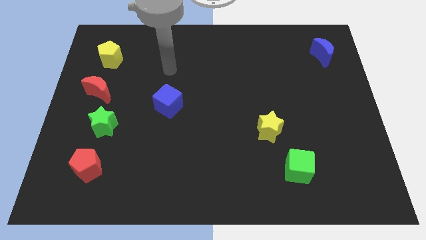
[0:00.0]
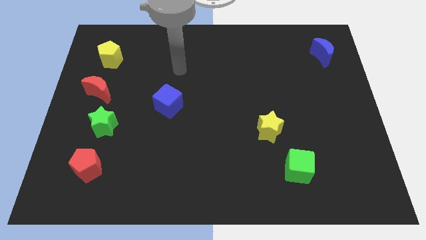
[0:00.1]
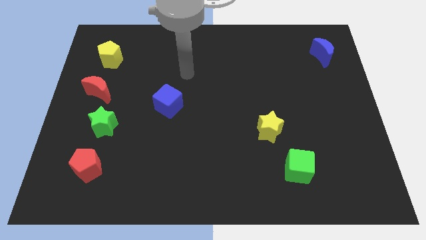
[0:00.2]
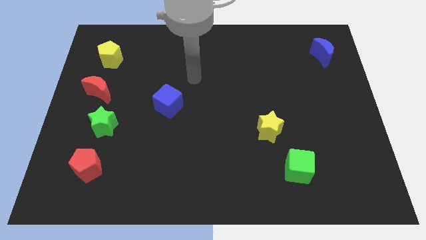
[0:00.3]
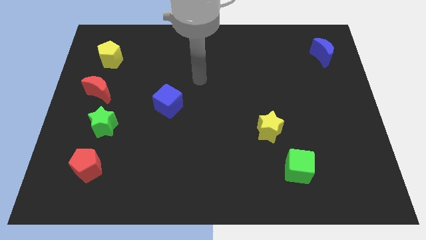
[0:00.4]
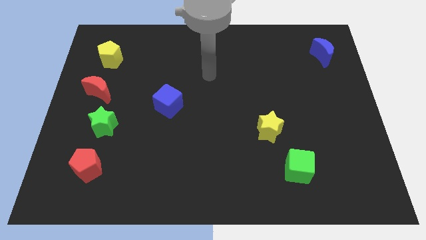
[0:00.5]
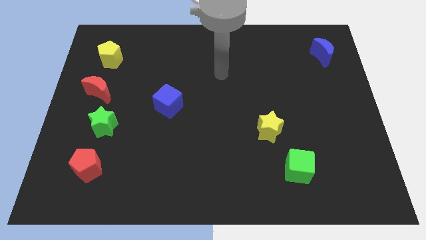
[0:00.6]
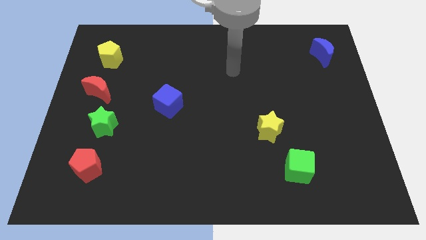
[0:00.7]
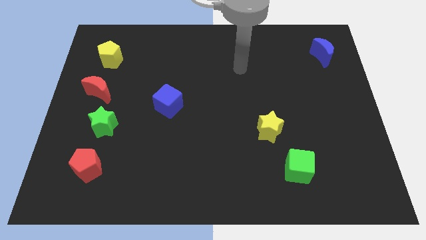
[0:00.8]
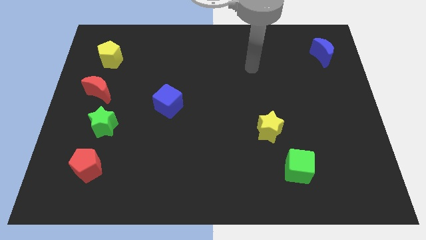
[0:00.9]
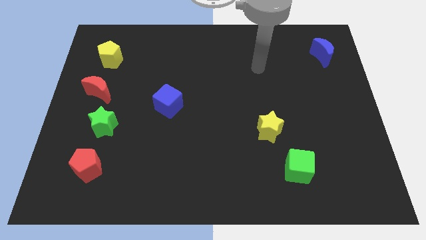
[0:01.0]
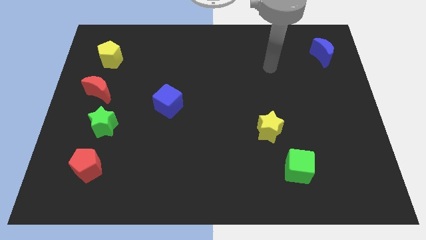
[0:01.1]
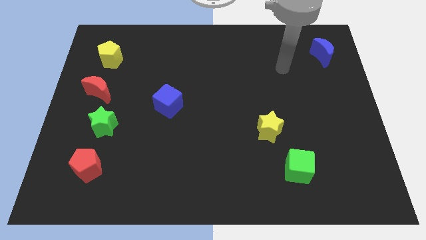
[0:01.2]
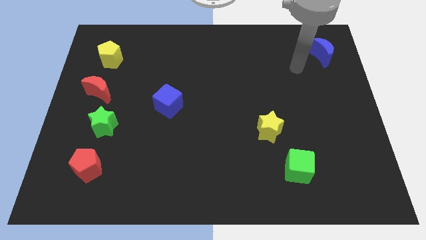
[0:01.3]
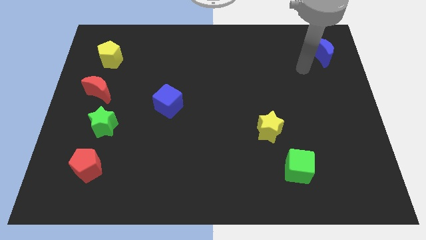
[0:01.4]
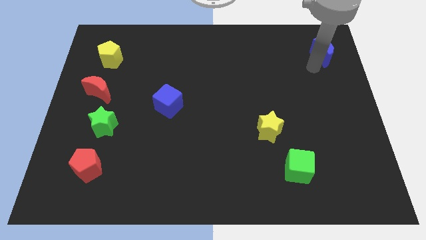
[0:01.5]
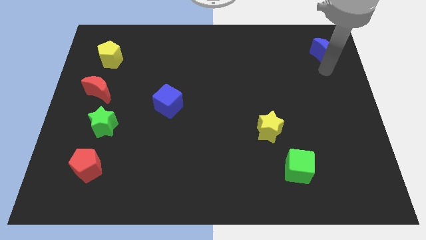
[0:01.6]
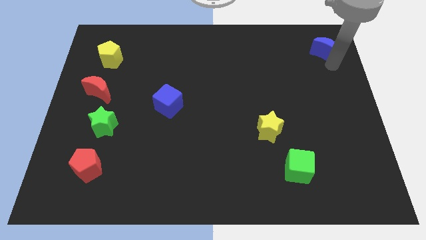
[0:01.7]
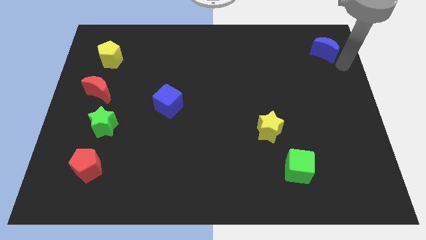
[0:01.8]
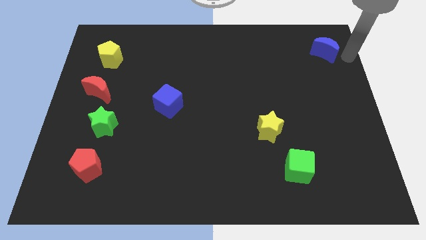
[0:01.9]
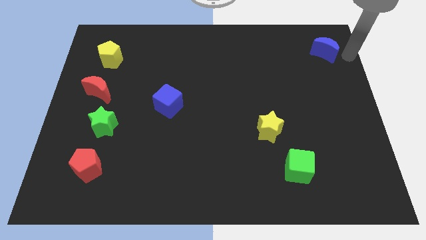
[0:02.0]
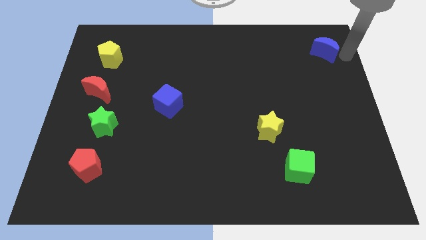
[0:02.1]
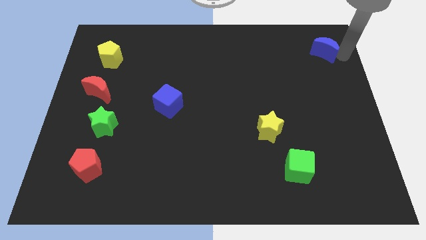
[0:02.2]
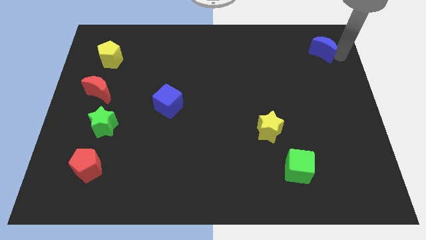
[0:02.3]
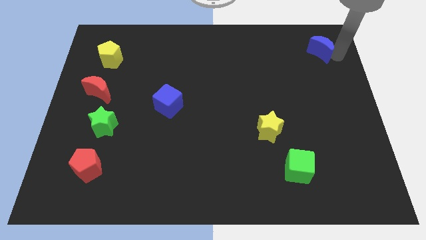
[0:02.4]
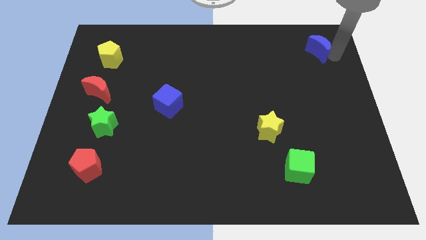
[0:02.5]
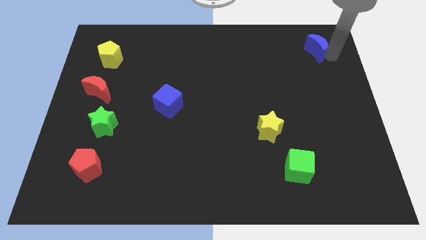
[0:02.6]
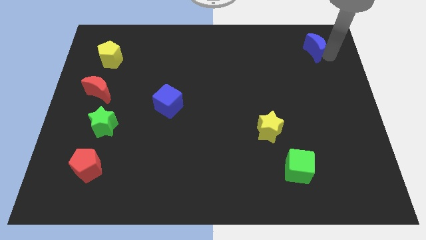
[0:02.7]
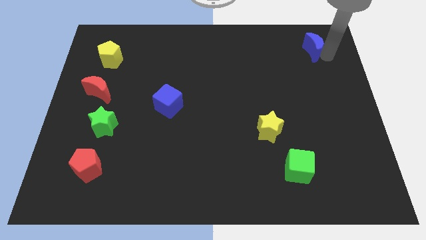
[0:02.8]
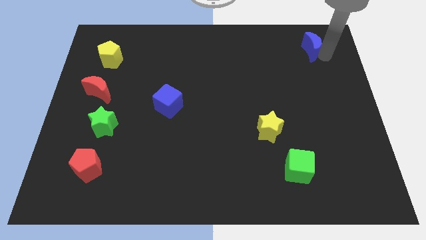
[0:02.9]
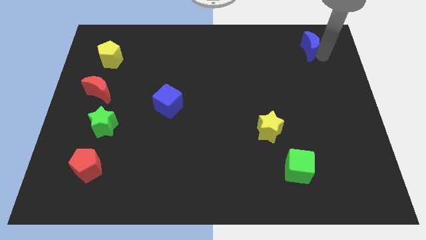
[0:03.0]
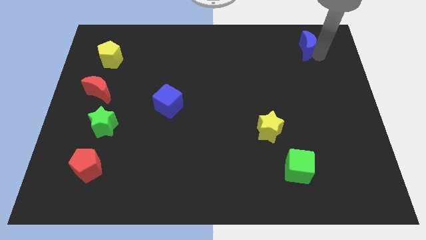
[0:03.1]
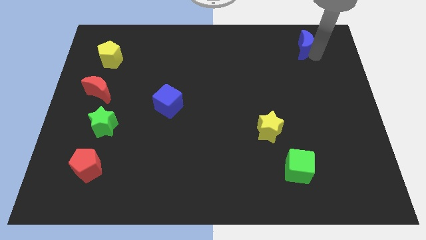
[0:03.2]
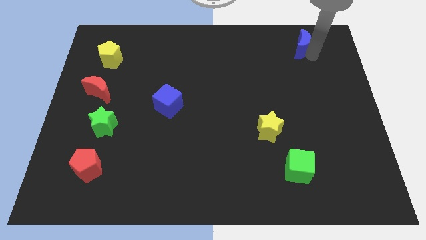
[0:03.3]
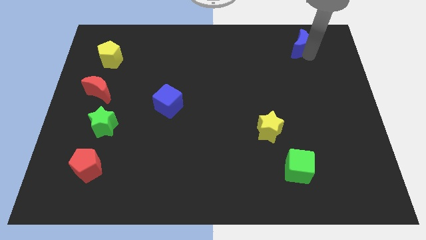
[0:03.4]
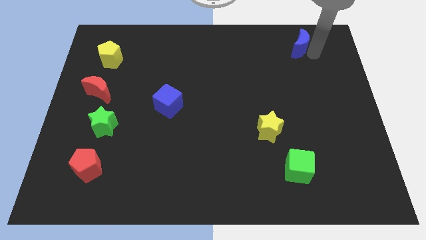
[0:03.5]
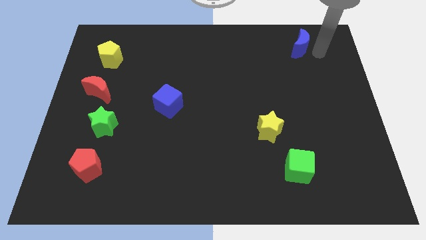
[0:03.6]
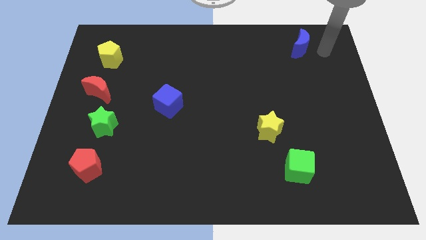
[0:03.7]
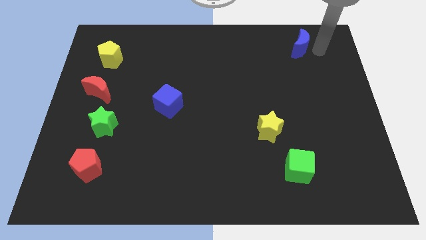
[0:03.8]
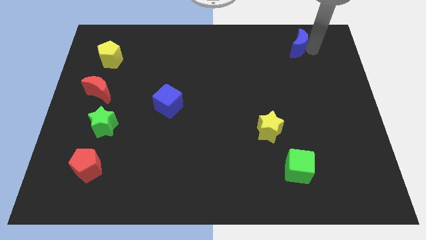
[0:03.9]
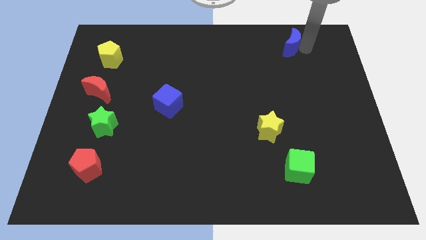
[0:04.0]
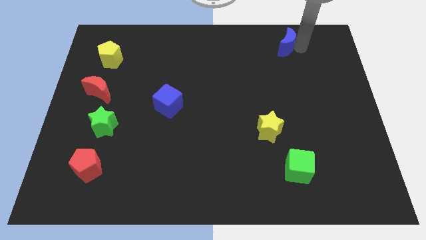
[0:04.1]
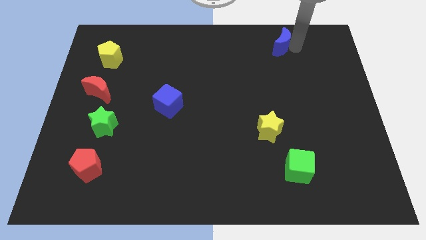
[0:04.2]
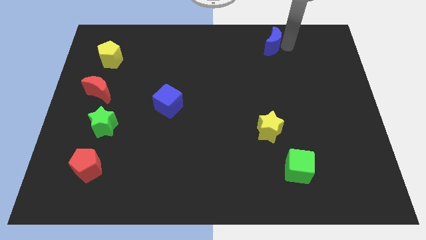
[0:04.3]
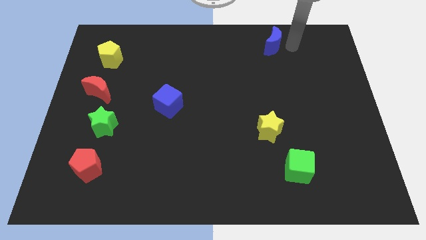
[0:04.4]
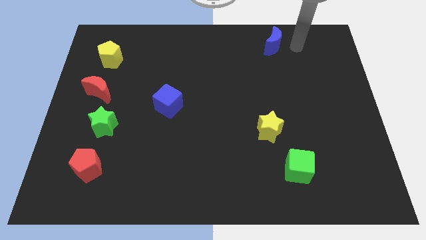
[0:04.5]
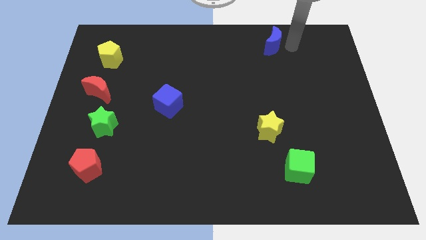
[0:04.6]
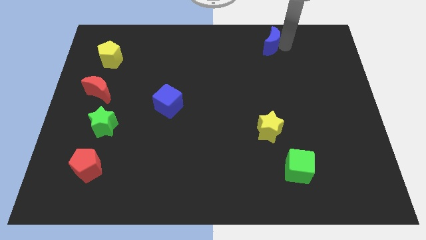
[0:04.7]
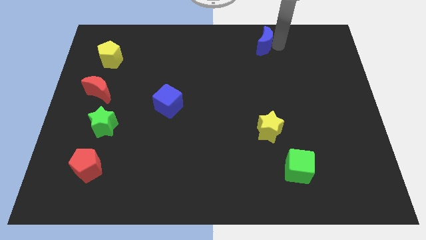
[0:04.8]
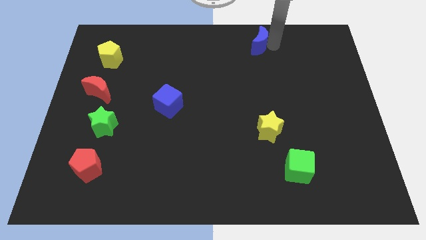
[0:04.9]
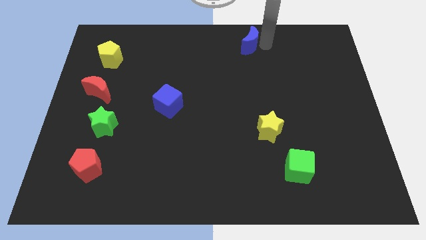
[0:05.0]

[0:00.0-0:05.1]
move the blue moon to the top

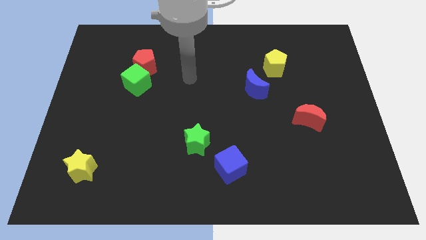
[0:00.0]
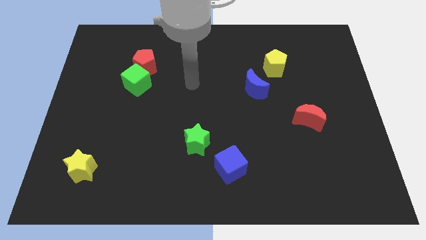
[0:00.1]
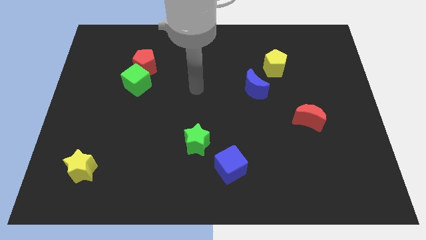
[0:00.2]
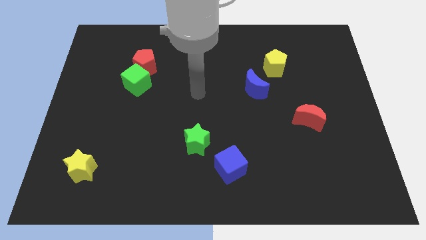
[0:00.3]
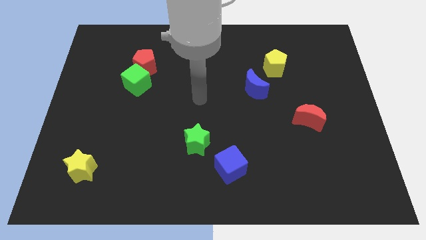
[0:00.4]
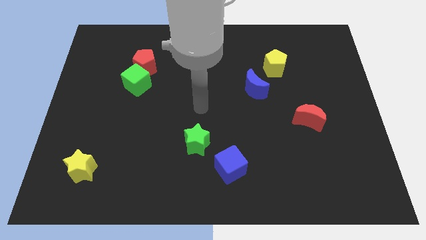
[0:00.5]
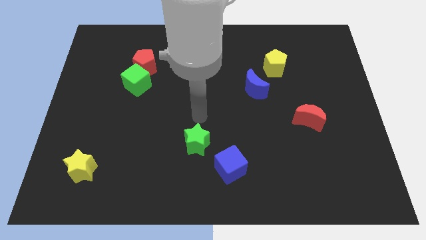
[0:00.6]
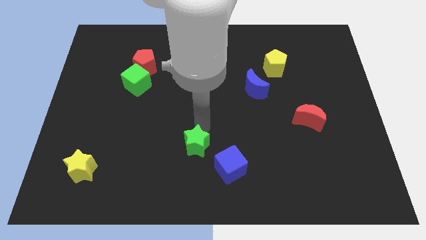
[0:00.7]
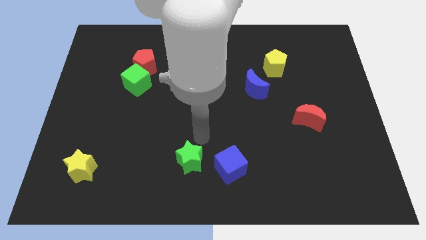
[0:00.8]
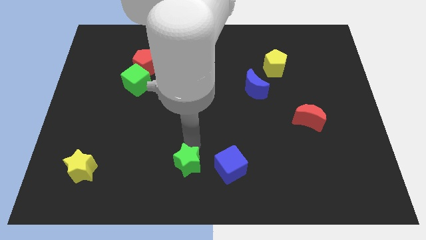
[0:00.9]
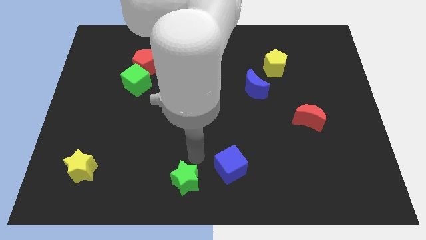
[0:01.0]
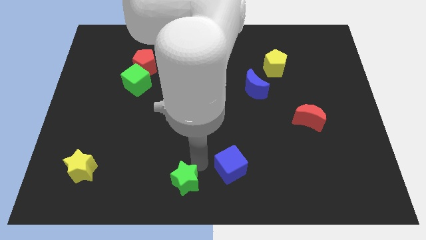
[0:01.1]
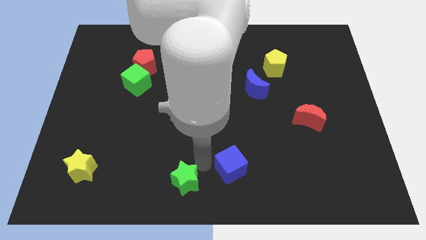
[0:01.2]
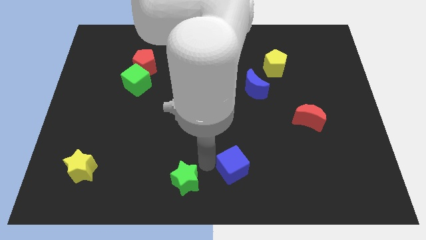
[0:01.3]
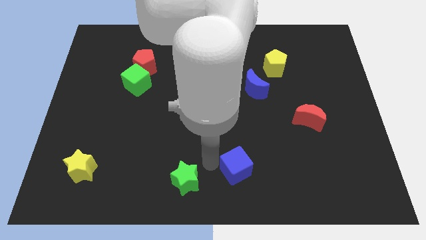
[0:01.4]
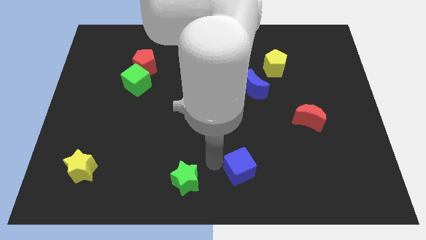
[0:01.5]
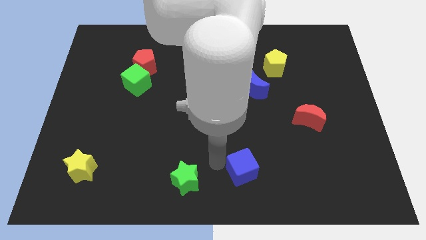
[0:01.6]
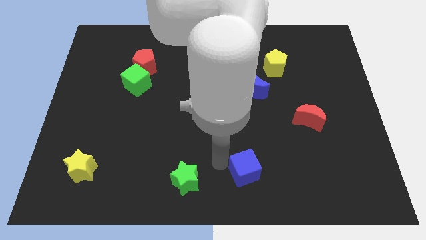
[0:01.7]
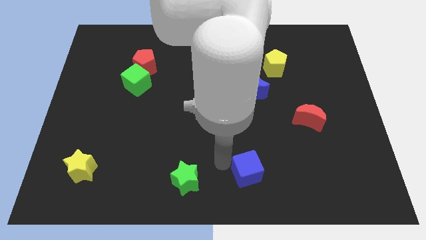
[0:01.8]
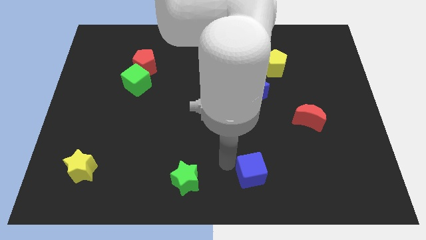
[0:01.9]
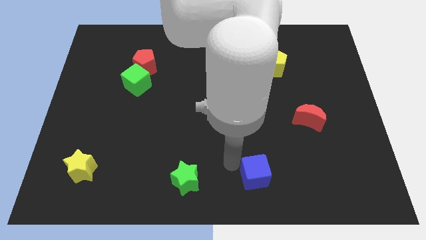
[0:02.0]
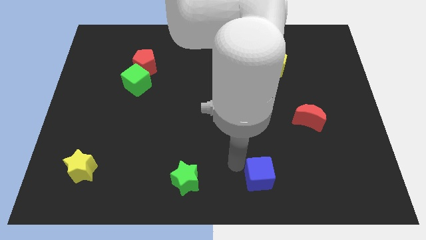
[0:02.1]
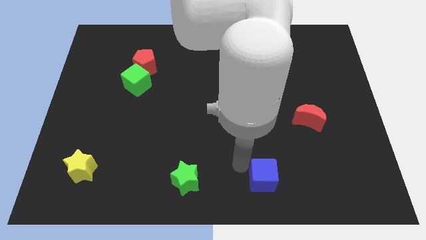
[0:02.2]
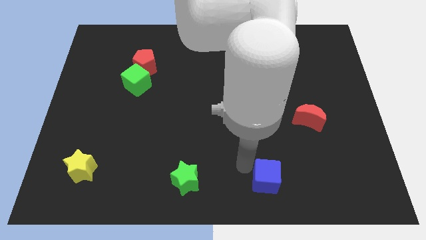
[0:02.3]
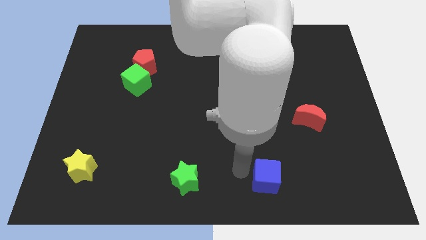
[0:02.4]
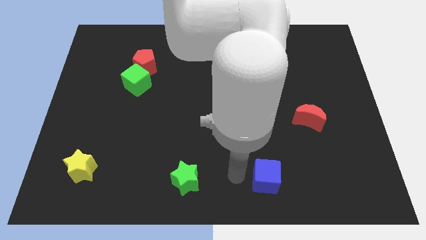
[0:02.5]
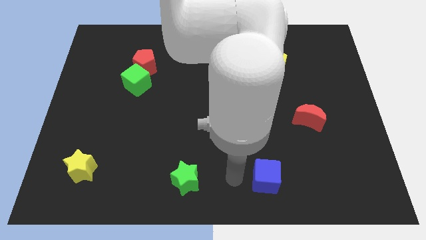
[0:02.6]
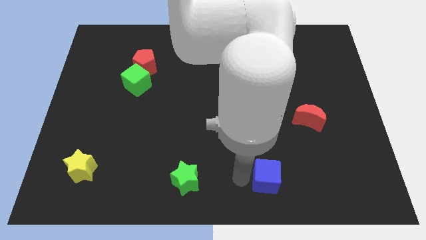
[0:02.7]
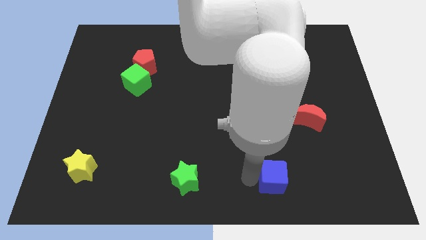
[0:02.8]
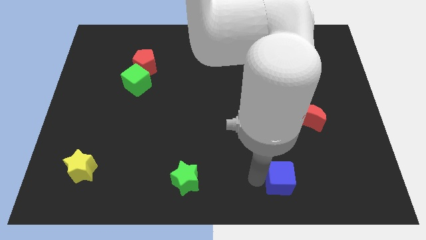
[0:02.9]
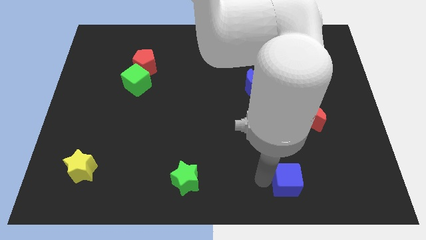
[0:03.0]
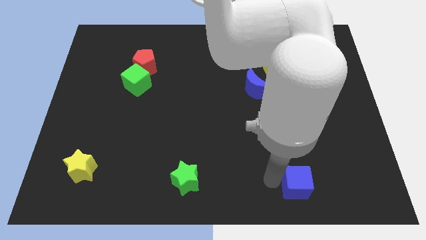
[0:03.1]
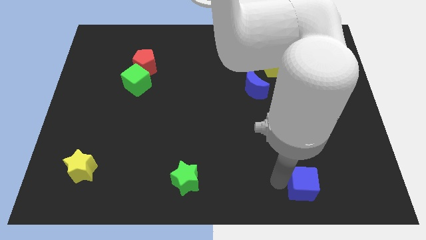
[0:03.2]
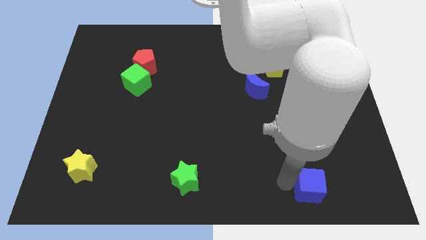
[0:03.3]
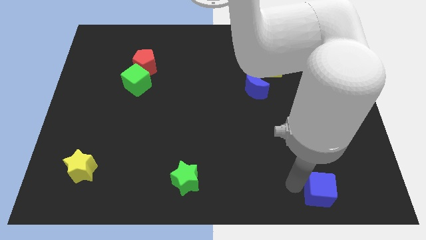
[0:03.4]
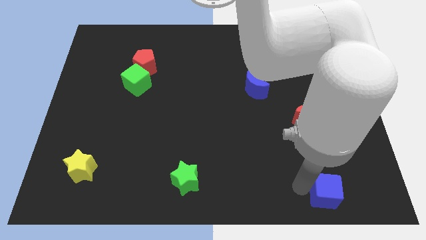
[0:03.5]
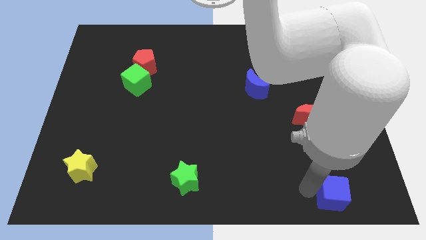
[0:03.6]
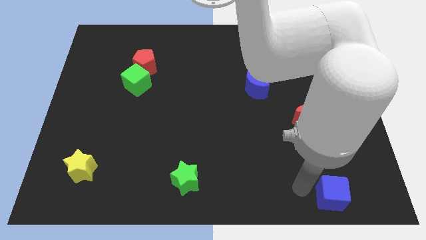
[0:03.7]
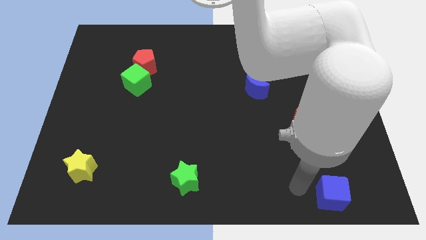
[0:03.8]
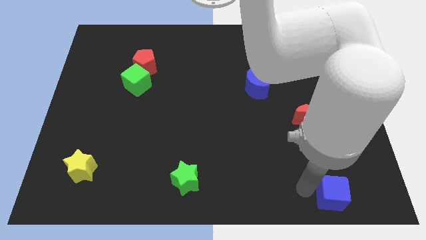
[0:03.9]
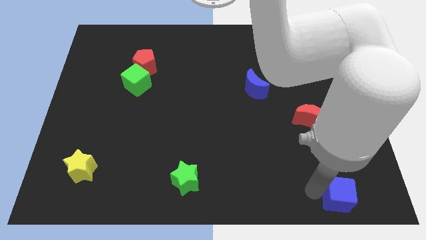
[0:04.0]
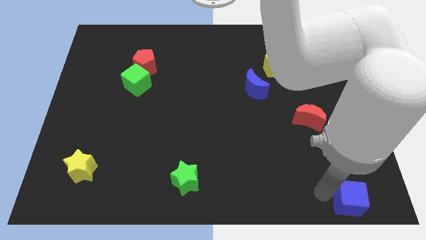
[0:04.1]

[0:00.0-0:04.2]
put the blue cube to the lower right corner
